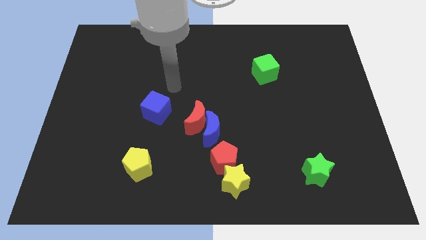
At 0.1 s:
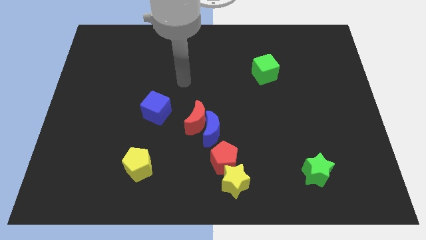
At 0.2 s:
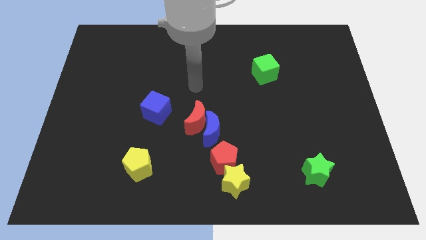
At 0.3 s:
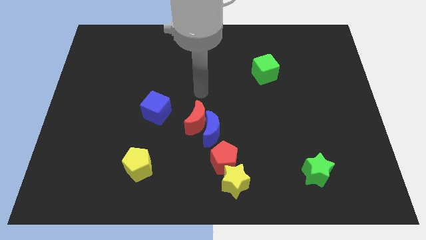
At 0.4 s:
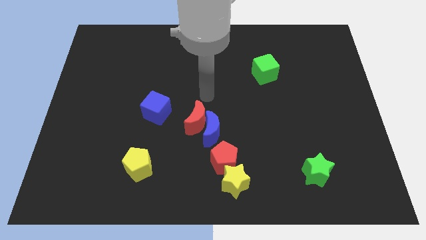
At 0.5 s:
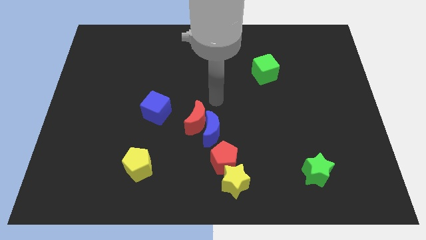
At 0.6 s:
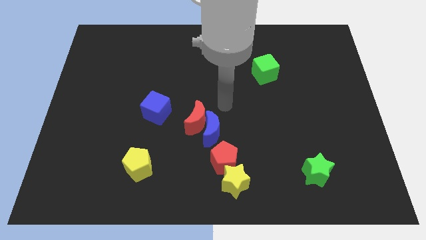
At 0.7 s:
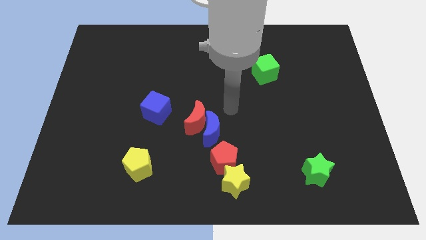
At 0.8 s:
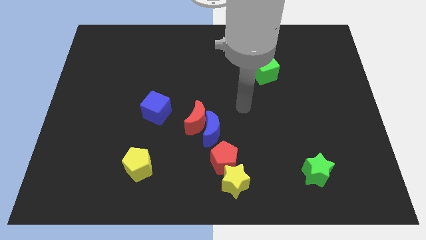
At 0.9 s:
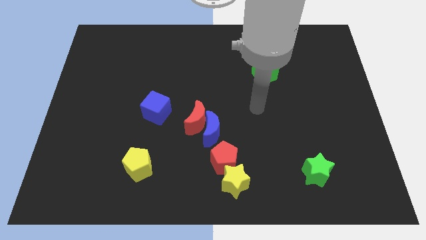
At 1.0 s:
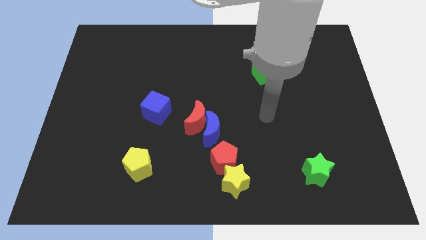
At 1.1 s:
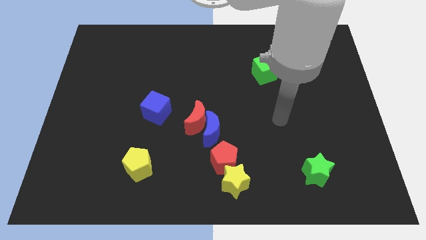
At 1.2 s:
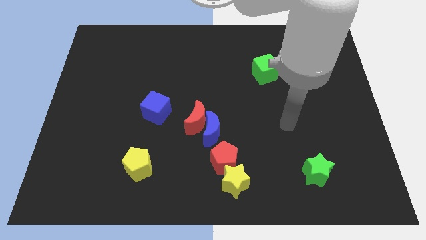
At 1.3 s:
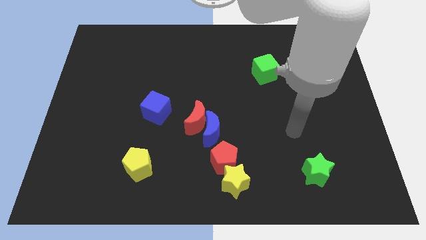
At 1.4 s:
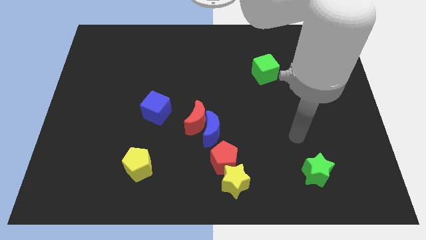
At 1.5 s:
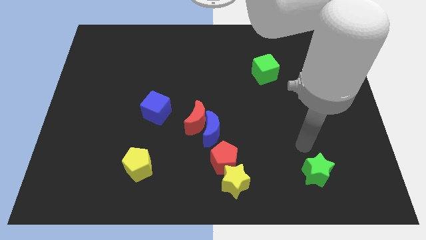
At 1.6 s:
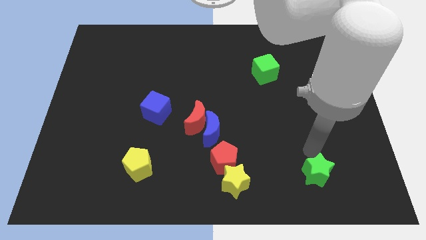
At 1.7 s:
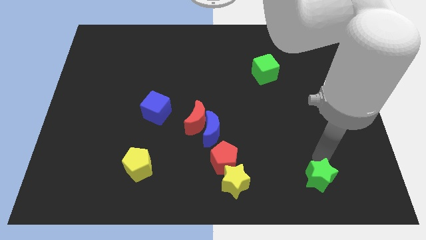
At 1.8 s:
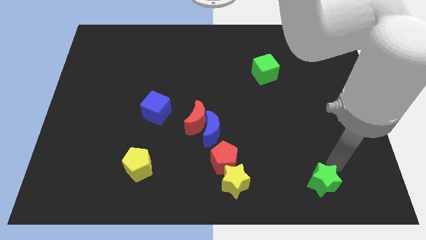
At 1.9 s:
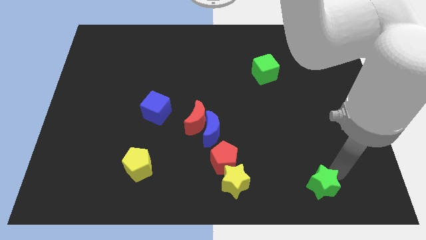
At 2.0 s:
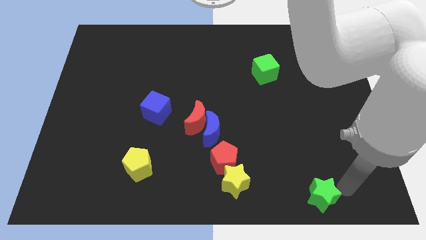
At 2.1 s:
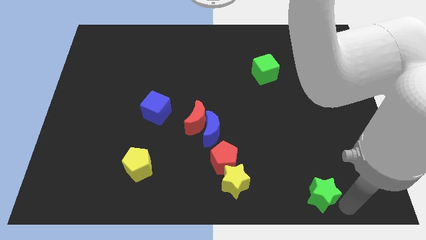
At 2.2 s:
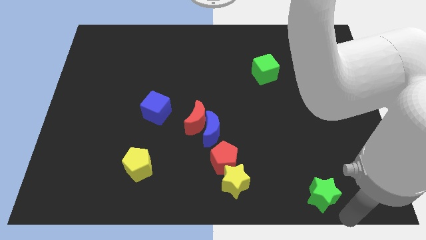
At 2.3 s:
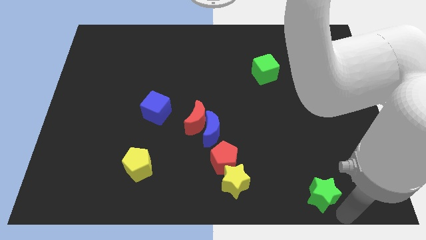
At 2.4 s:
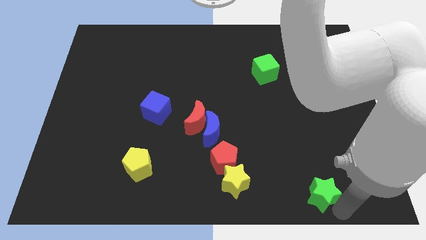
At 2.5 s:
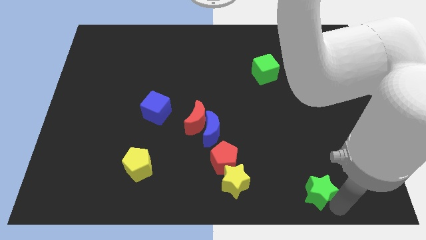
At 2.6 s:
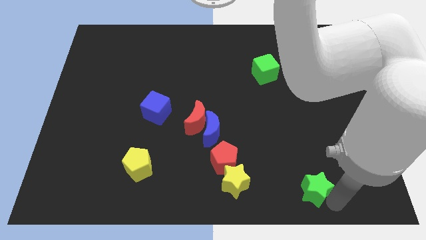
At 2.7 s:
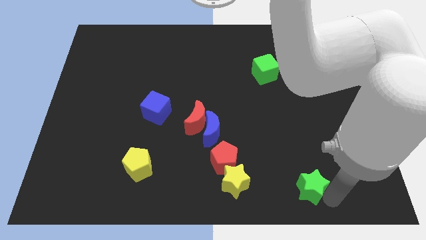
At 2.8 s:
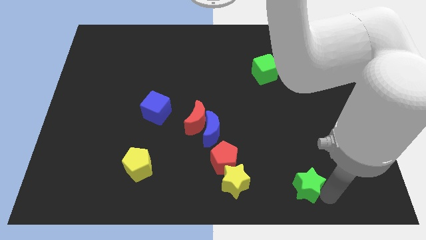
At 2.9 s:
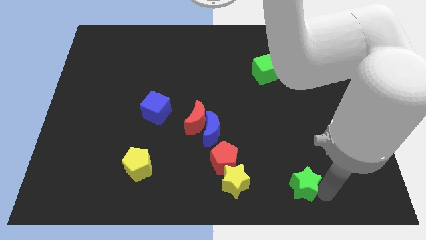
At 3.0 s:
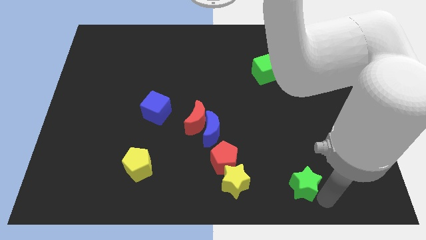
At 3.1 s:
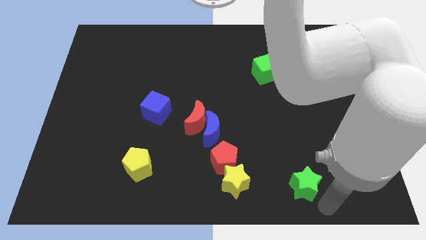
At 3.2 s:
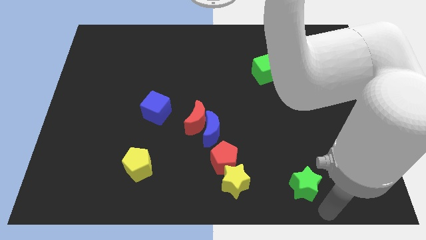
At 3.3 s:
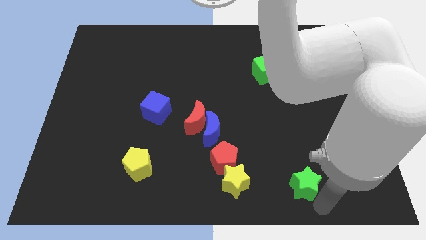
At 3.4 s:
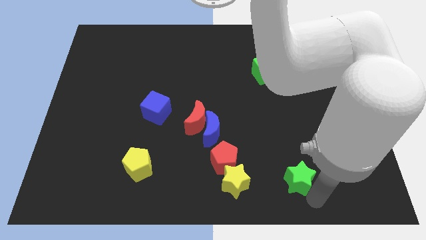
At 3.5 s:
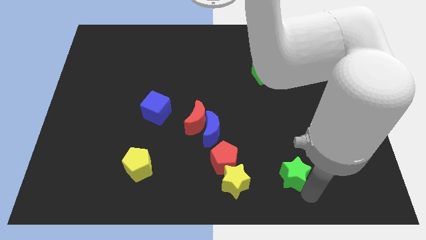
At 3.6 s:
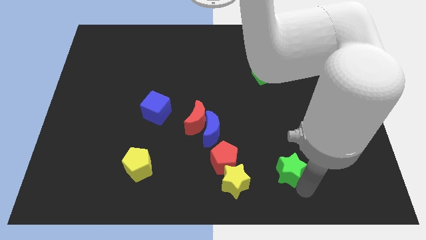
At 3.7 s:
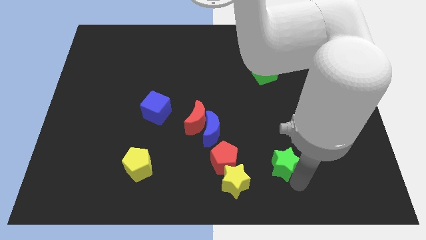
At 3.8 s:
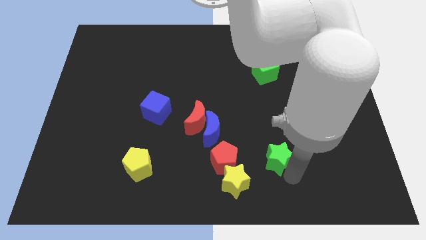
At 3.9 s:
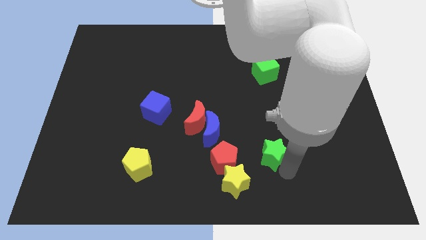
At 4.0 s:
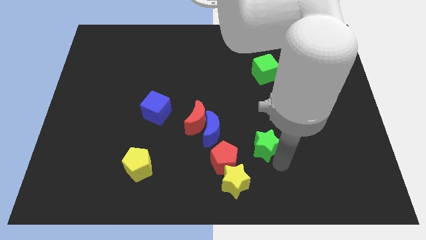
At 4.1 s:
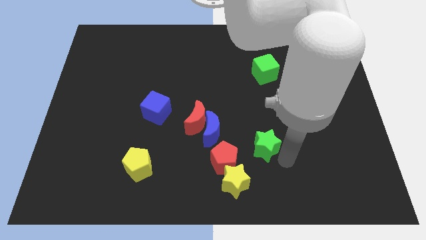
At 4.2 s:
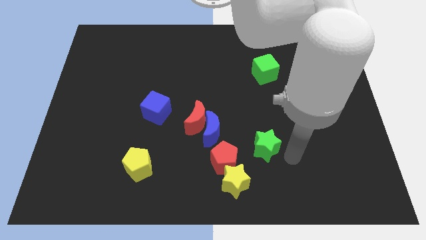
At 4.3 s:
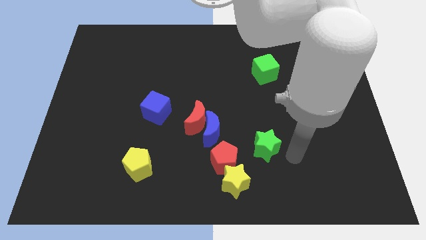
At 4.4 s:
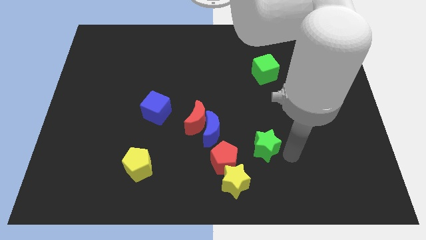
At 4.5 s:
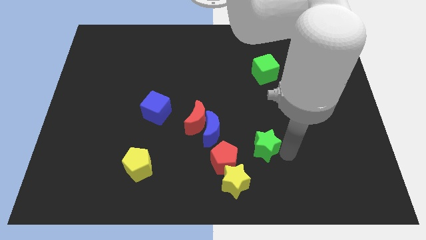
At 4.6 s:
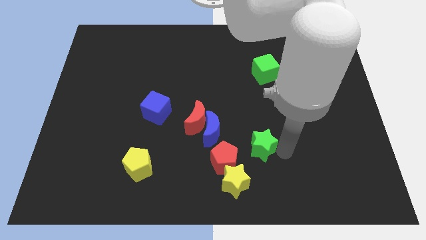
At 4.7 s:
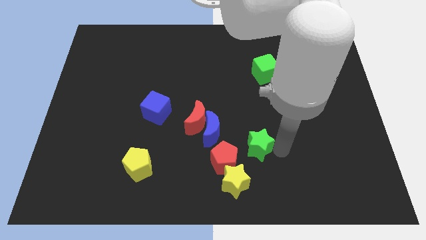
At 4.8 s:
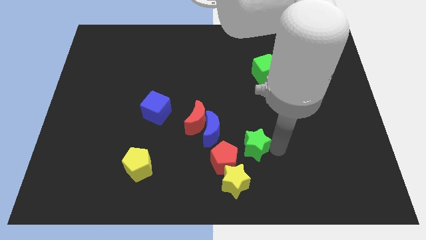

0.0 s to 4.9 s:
slide the green star above the yellow star

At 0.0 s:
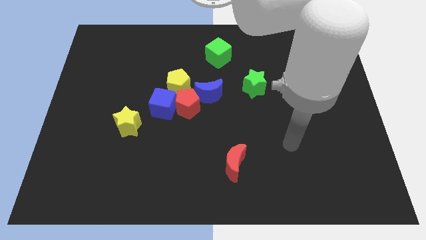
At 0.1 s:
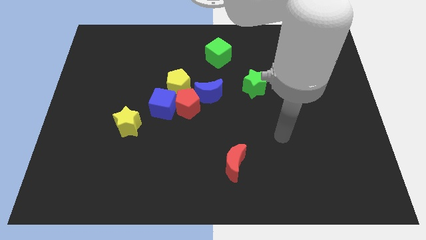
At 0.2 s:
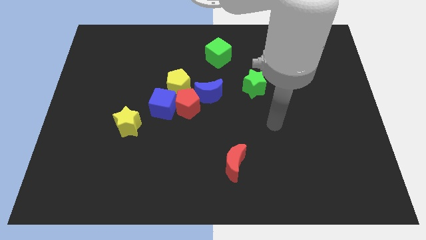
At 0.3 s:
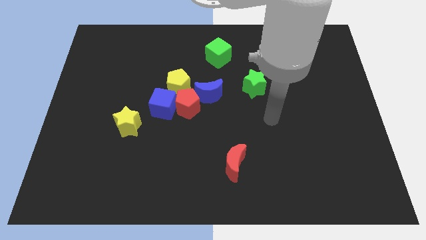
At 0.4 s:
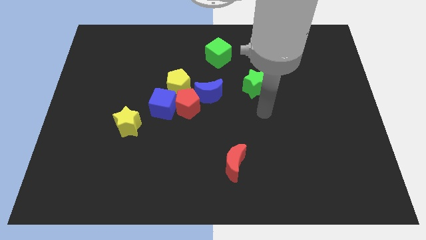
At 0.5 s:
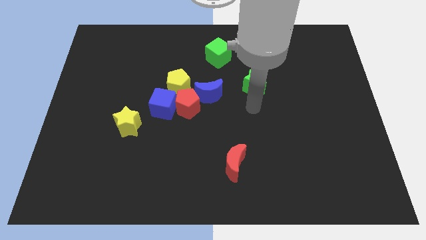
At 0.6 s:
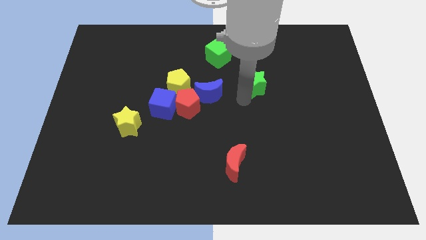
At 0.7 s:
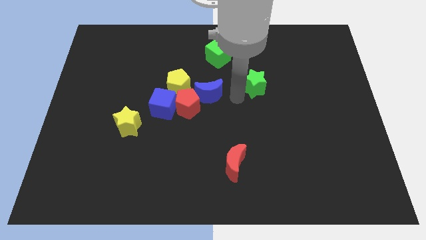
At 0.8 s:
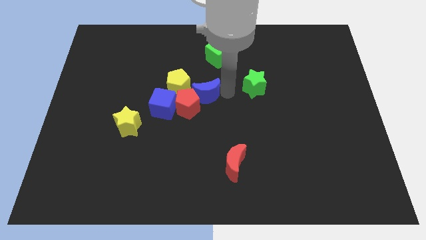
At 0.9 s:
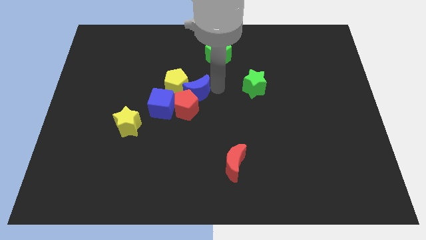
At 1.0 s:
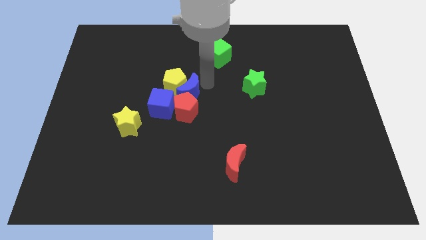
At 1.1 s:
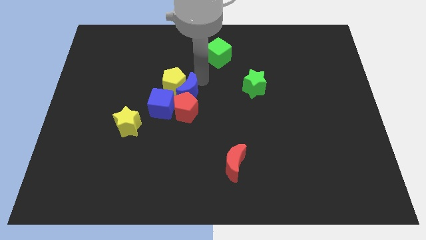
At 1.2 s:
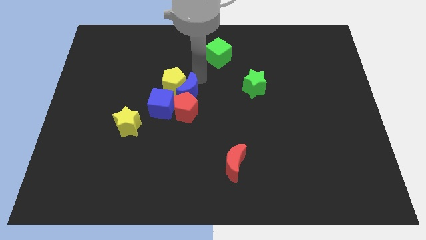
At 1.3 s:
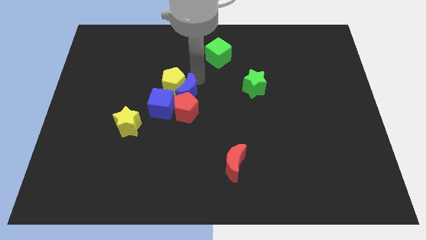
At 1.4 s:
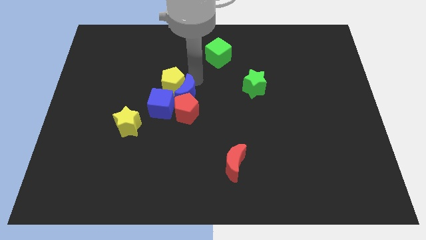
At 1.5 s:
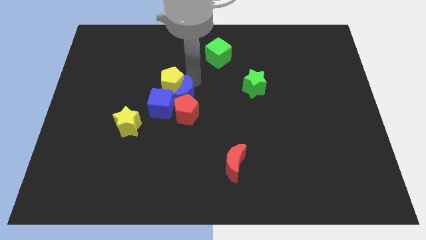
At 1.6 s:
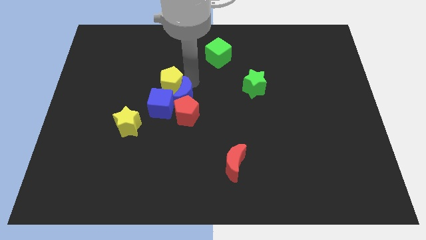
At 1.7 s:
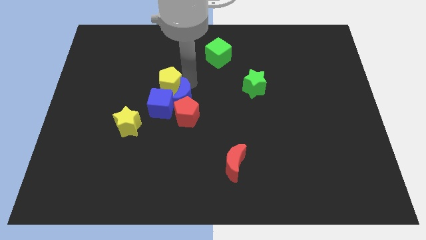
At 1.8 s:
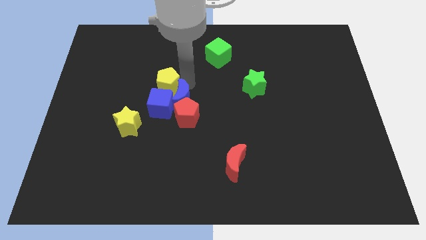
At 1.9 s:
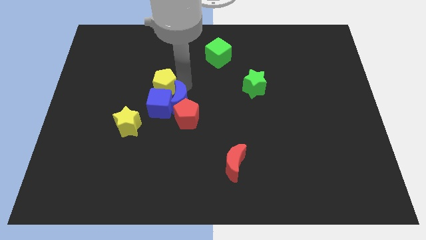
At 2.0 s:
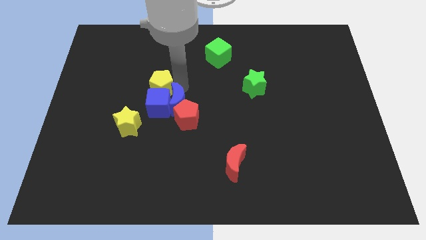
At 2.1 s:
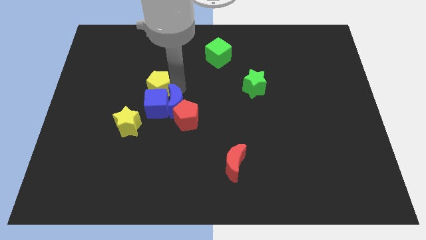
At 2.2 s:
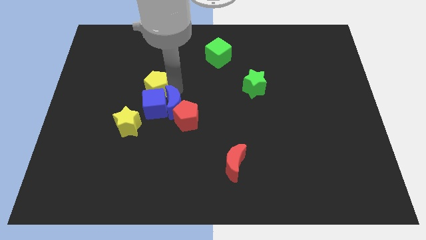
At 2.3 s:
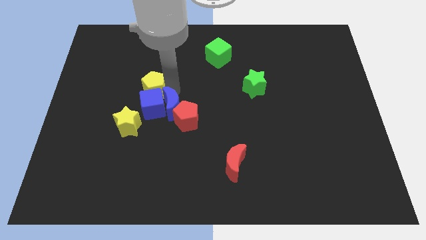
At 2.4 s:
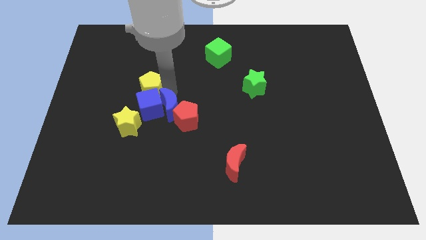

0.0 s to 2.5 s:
slide the yellow pentagon to the top of the yellow star
